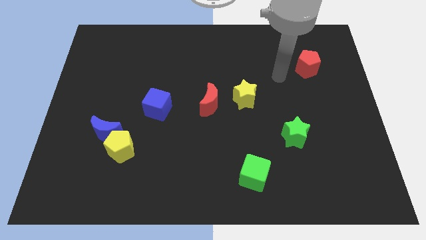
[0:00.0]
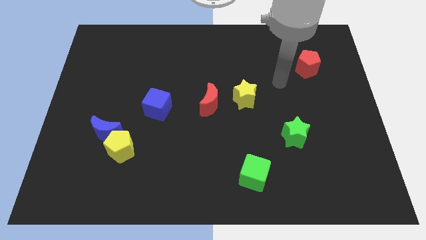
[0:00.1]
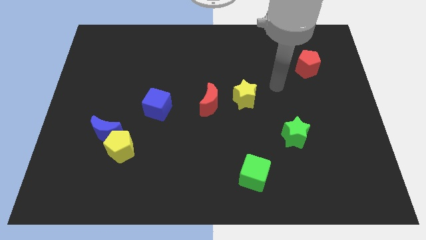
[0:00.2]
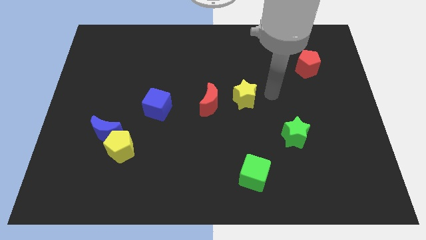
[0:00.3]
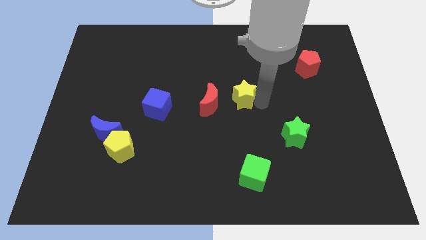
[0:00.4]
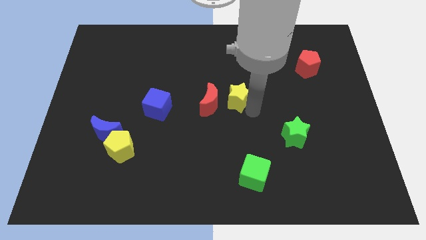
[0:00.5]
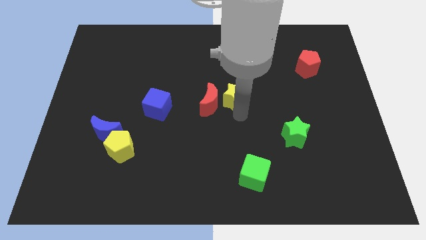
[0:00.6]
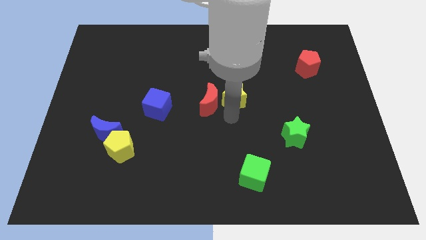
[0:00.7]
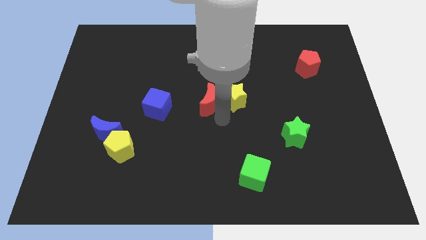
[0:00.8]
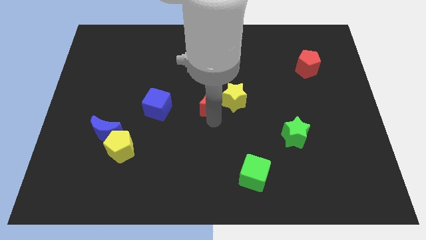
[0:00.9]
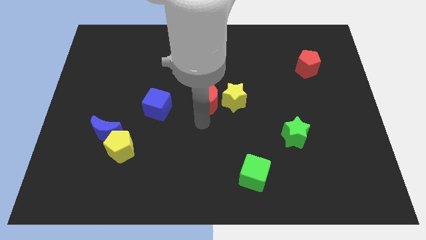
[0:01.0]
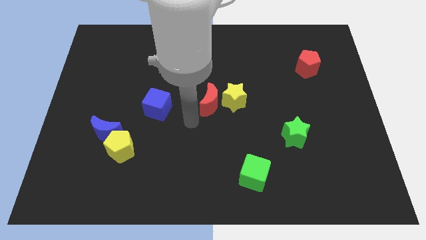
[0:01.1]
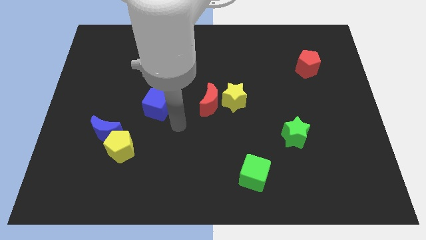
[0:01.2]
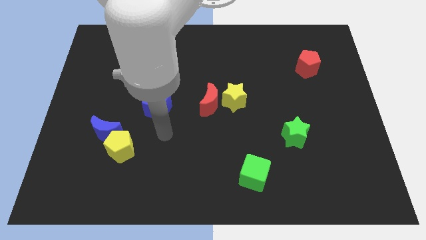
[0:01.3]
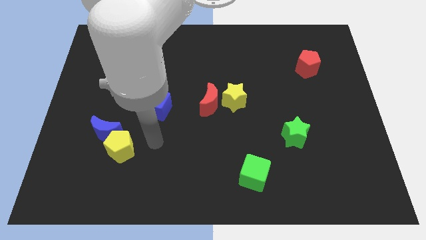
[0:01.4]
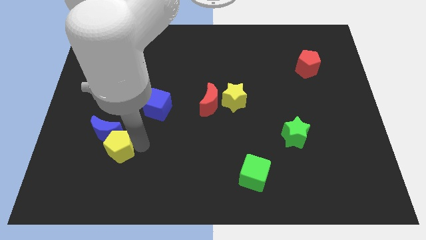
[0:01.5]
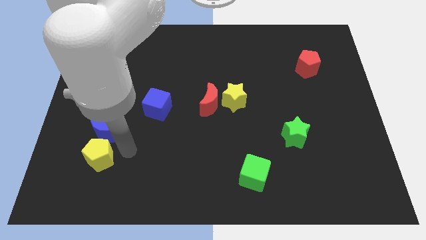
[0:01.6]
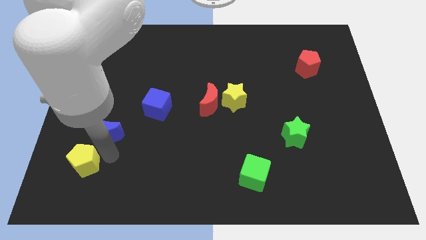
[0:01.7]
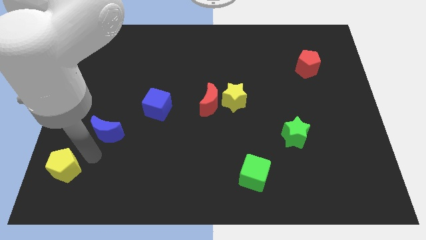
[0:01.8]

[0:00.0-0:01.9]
separate the blue moon from the yellow pentagon

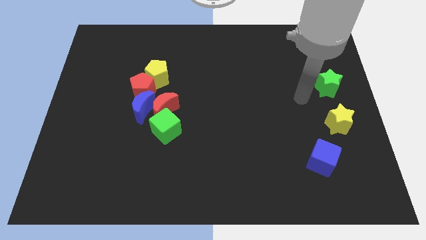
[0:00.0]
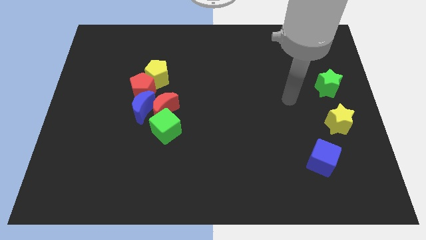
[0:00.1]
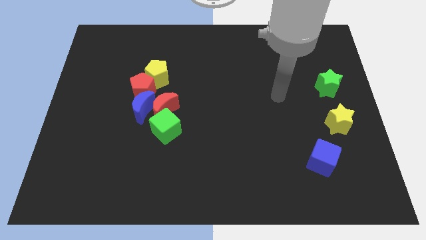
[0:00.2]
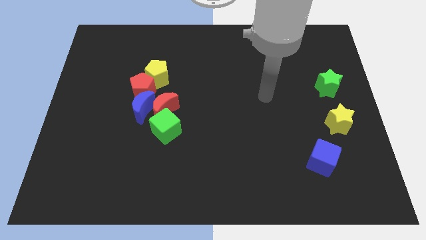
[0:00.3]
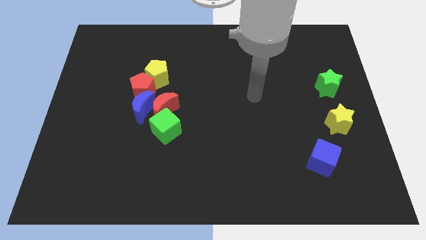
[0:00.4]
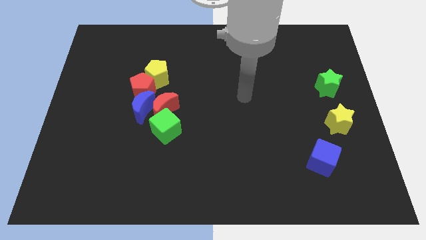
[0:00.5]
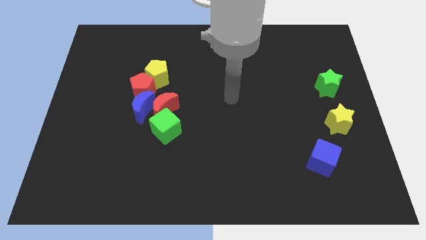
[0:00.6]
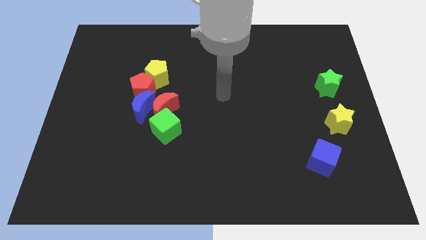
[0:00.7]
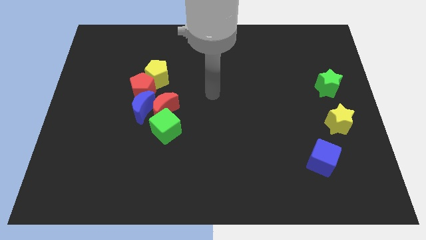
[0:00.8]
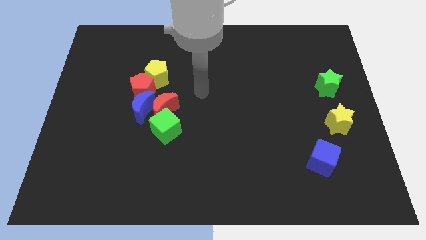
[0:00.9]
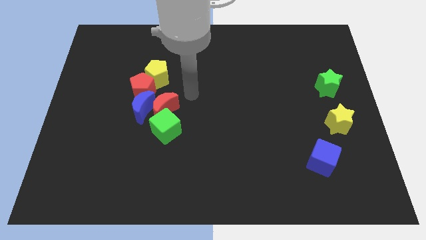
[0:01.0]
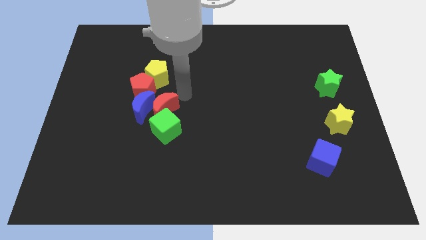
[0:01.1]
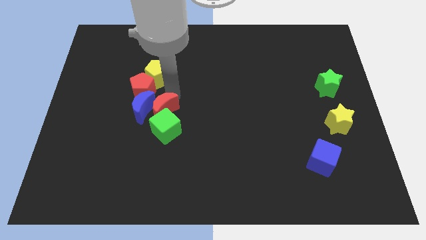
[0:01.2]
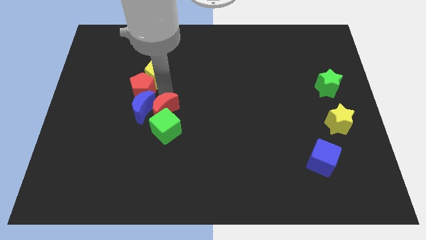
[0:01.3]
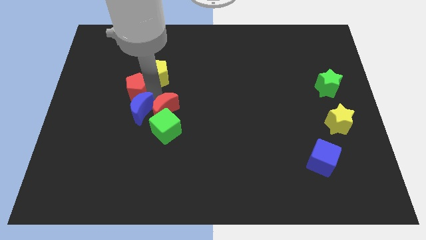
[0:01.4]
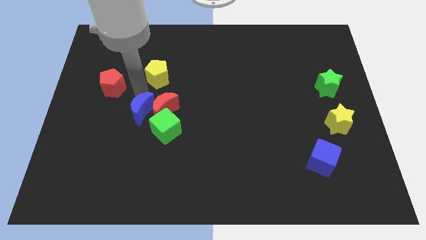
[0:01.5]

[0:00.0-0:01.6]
move the yellow pentagon away from the red pentagon

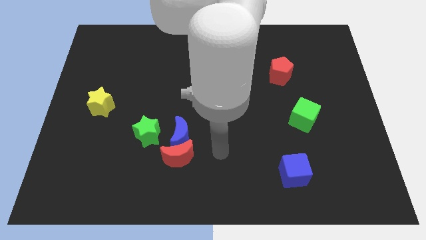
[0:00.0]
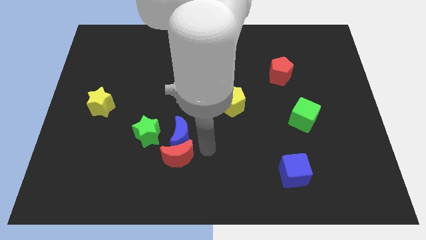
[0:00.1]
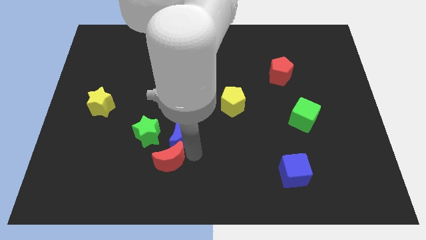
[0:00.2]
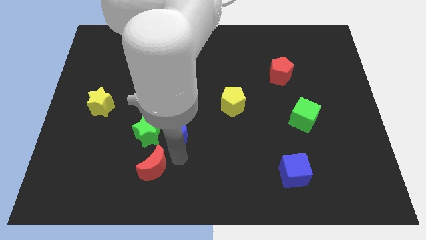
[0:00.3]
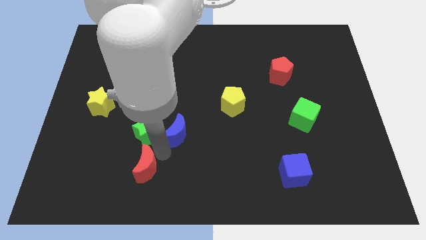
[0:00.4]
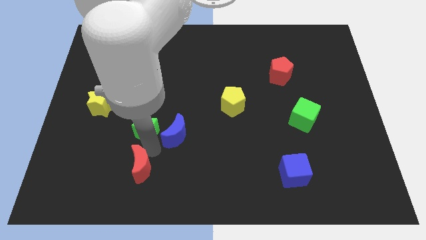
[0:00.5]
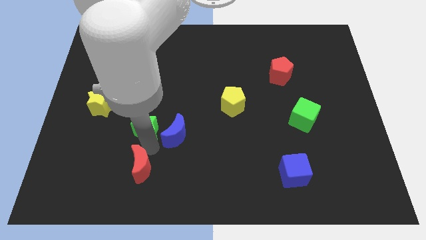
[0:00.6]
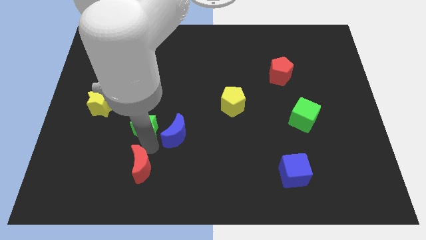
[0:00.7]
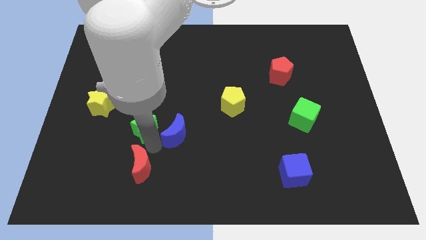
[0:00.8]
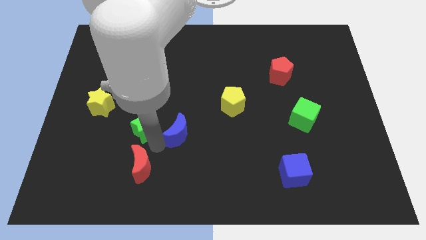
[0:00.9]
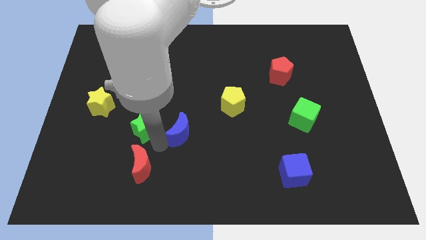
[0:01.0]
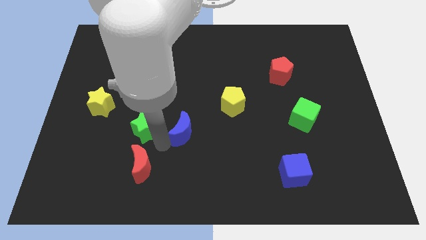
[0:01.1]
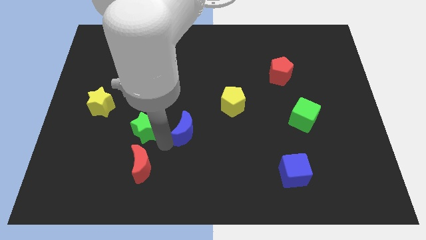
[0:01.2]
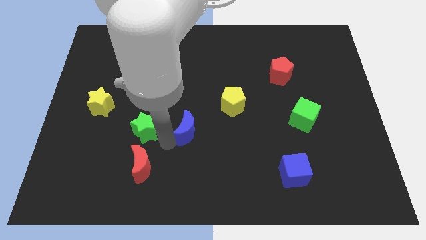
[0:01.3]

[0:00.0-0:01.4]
move the blue moon away from the red moon and green star

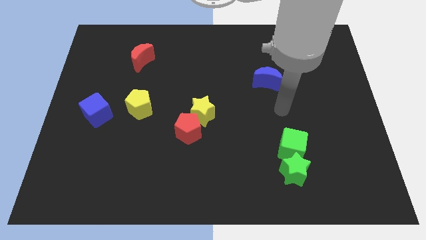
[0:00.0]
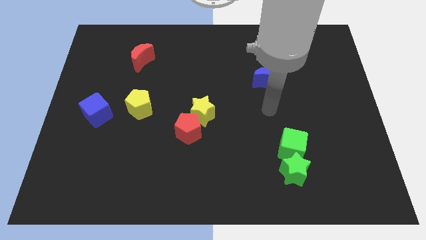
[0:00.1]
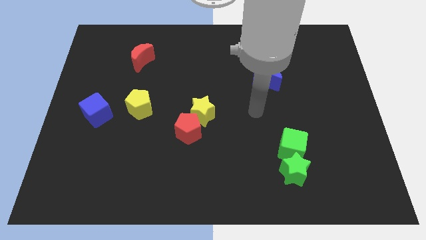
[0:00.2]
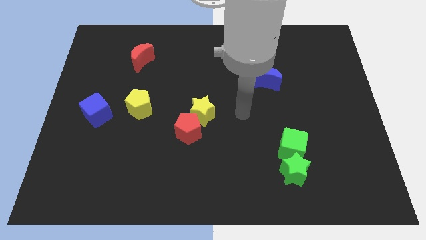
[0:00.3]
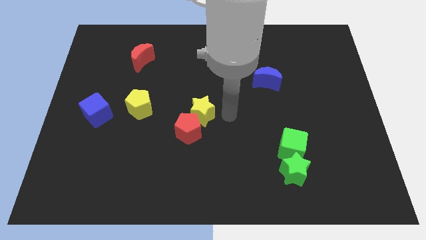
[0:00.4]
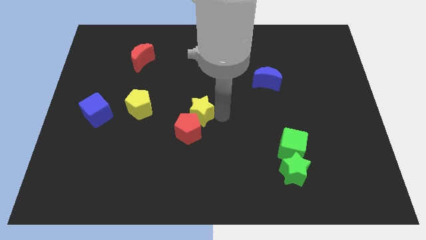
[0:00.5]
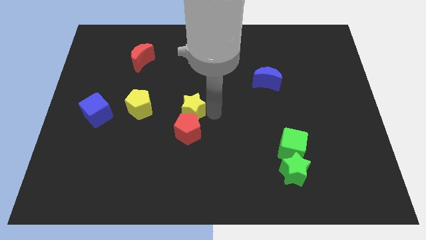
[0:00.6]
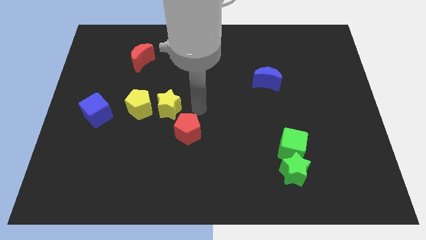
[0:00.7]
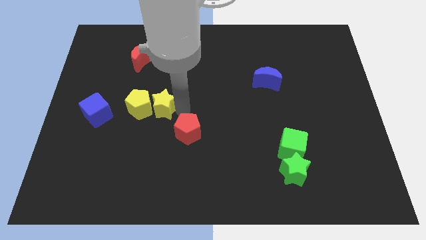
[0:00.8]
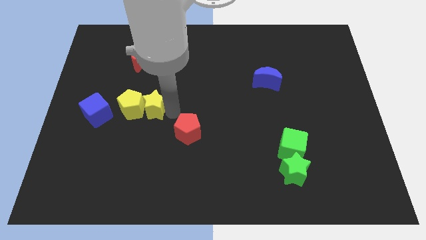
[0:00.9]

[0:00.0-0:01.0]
separate the red pentagon from the yellow star

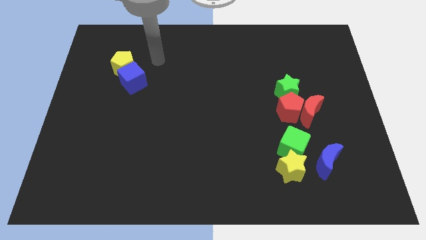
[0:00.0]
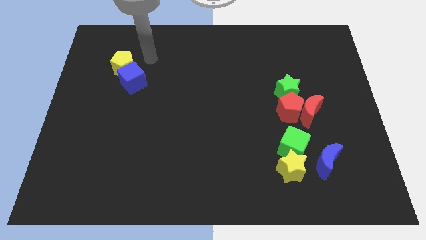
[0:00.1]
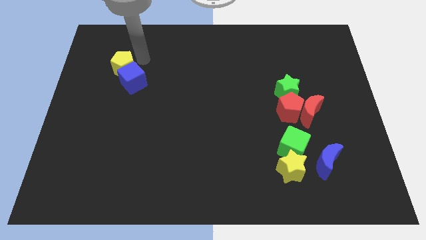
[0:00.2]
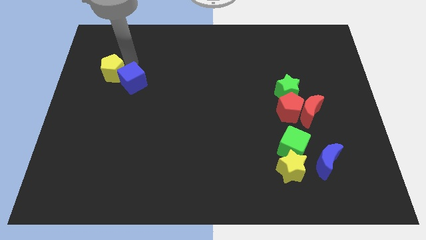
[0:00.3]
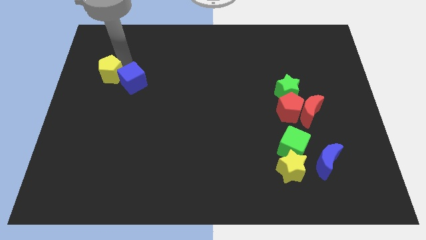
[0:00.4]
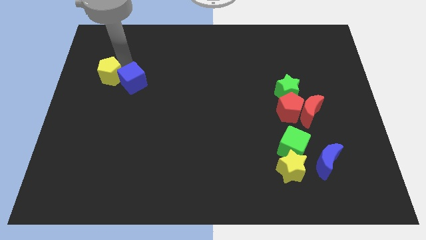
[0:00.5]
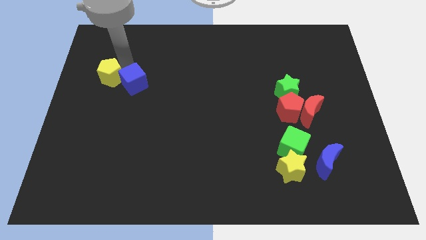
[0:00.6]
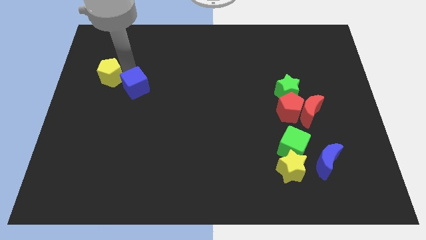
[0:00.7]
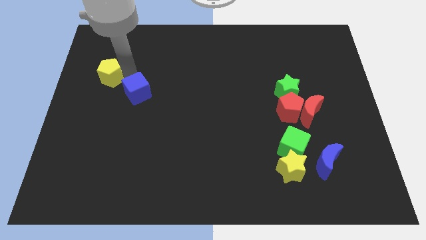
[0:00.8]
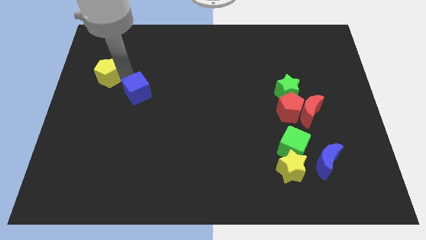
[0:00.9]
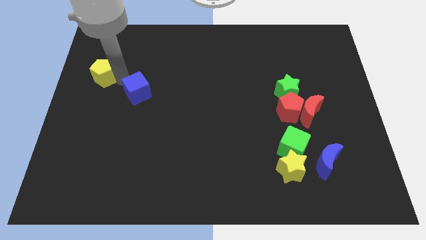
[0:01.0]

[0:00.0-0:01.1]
move the blue cube away from the yellow pentagon

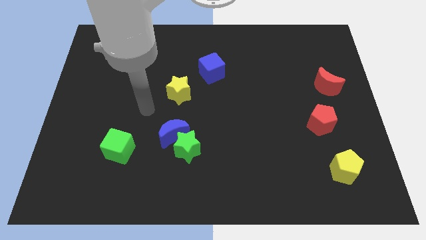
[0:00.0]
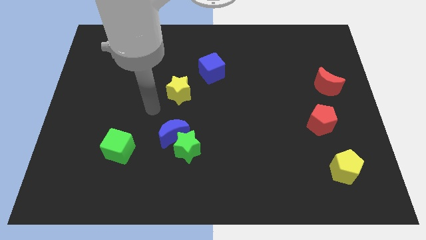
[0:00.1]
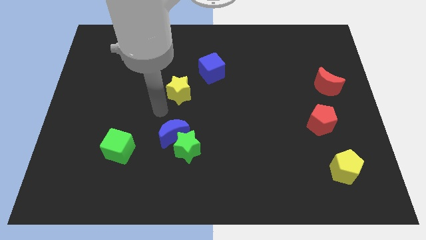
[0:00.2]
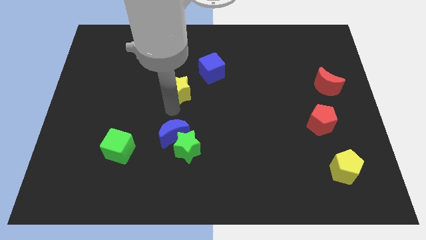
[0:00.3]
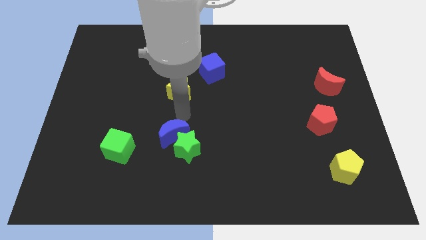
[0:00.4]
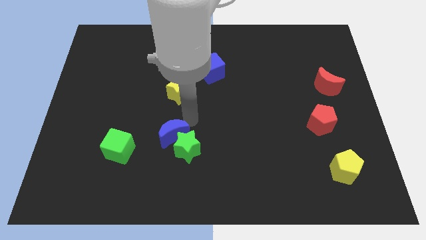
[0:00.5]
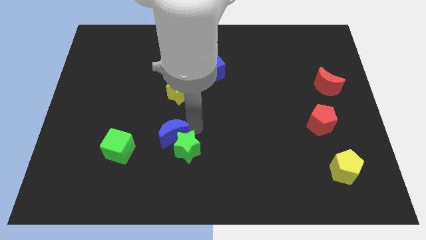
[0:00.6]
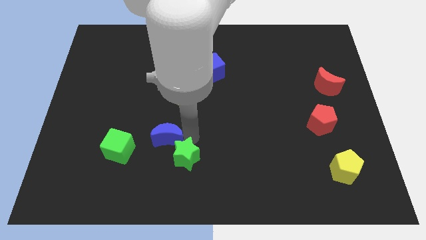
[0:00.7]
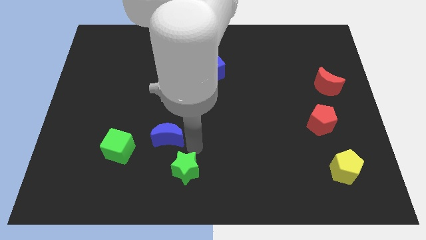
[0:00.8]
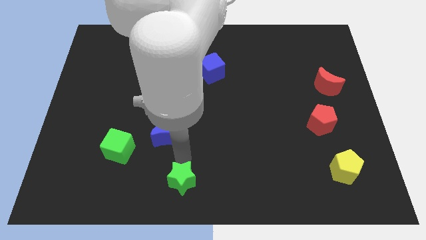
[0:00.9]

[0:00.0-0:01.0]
separate the blue moon from the green star

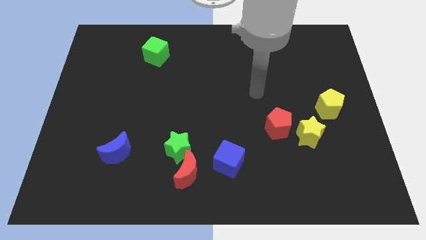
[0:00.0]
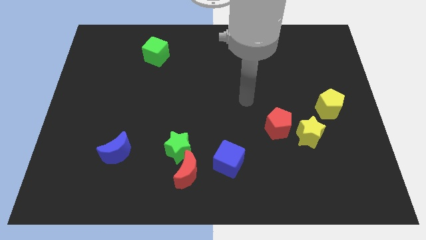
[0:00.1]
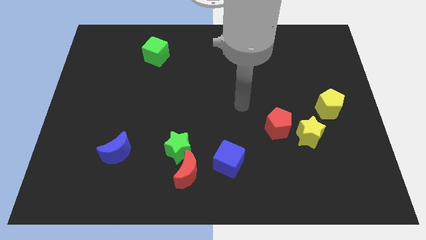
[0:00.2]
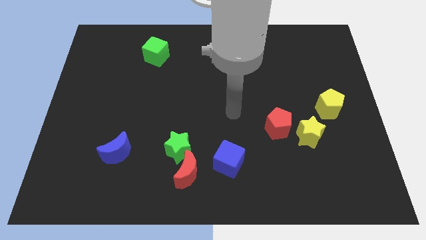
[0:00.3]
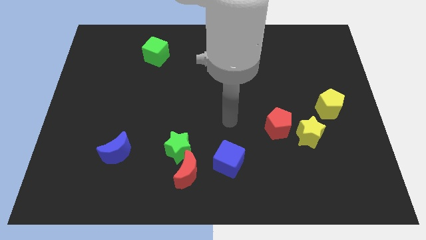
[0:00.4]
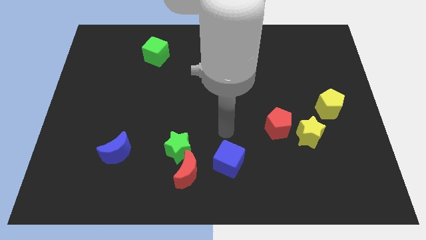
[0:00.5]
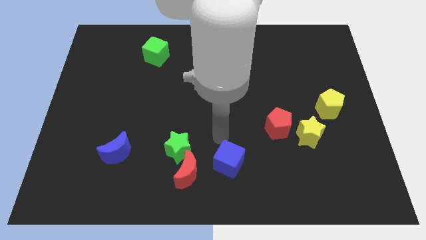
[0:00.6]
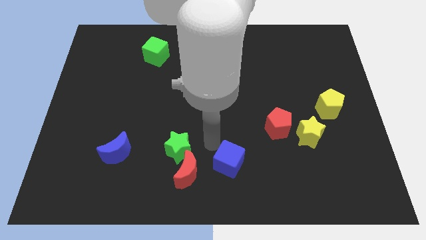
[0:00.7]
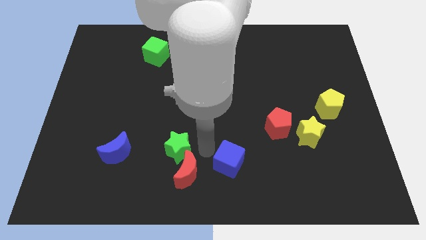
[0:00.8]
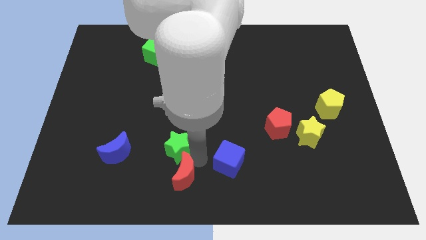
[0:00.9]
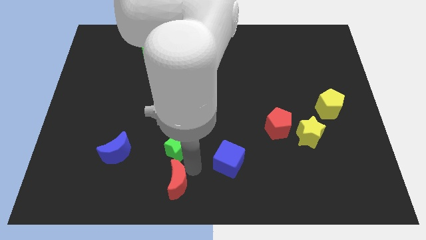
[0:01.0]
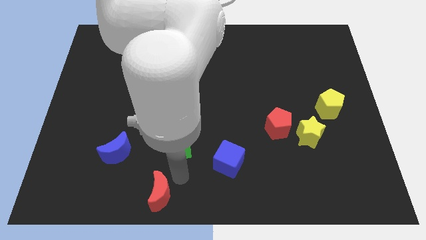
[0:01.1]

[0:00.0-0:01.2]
separate the green star from the red moon

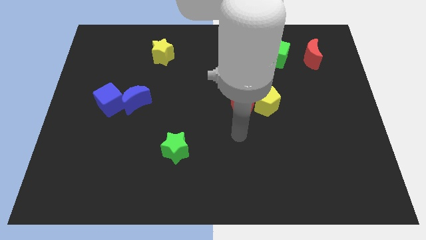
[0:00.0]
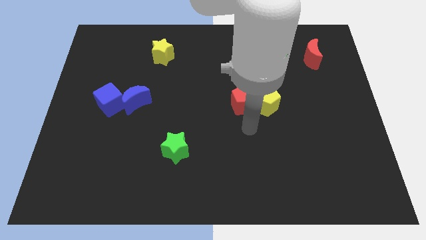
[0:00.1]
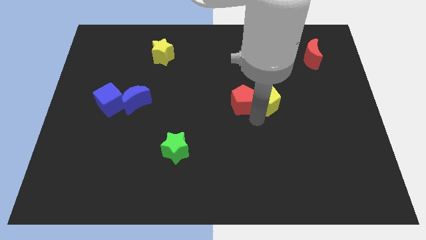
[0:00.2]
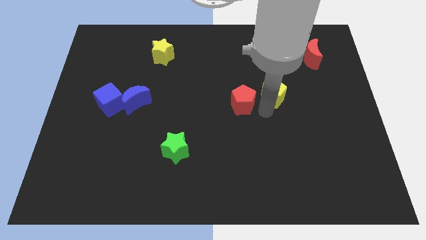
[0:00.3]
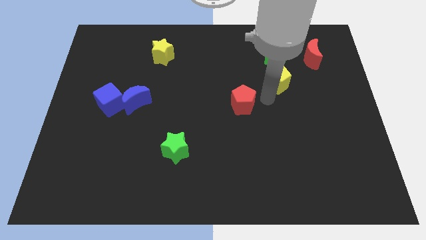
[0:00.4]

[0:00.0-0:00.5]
move the red pentagon away from the yellow pentagon
